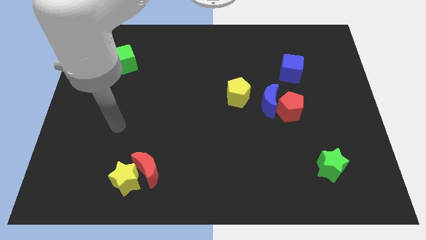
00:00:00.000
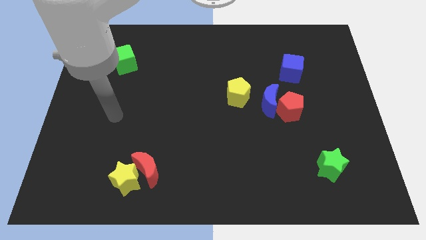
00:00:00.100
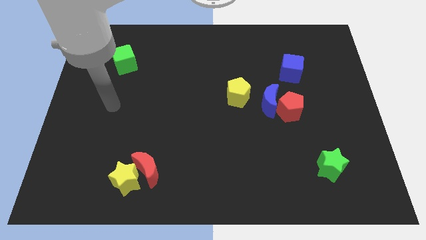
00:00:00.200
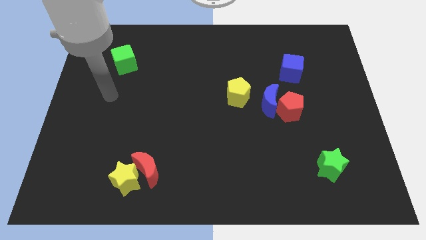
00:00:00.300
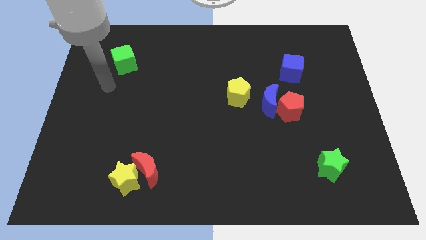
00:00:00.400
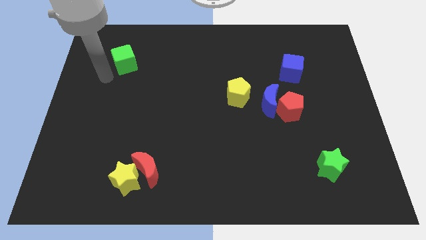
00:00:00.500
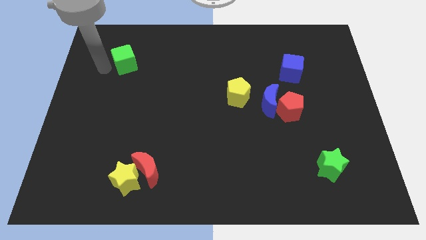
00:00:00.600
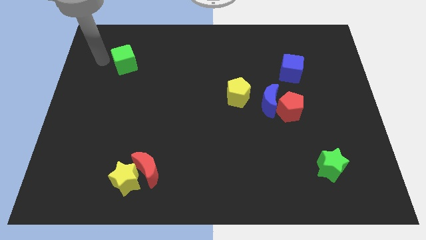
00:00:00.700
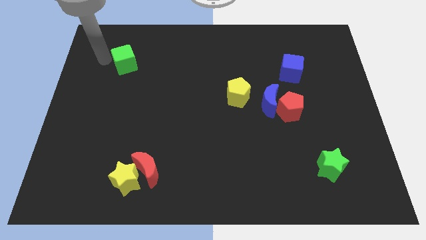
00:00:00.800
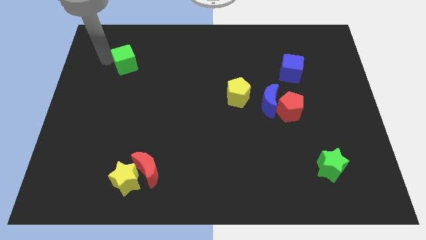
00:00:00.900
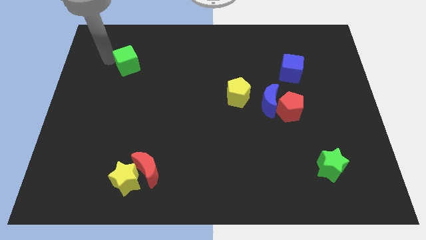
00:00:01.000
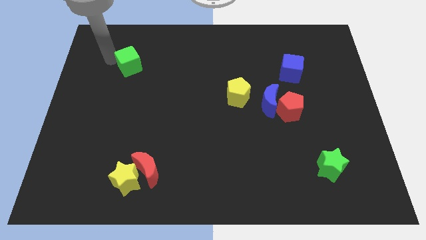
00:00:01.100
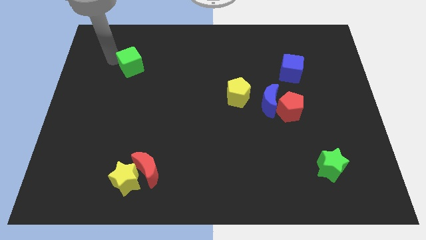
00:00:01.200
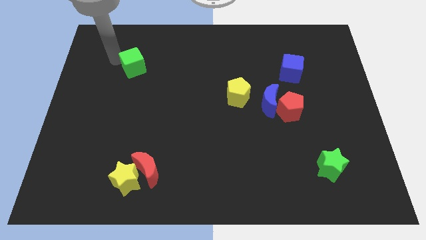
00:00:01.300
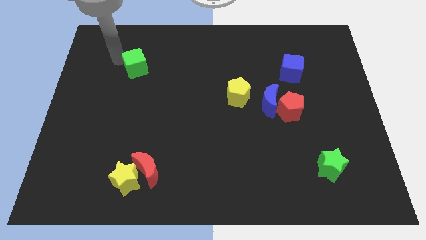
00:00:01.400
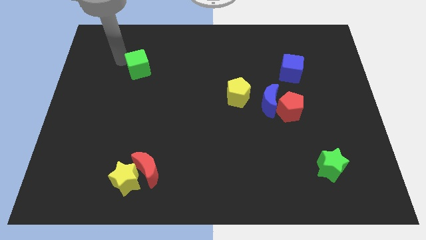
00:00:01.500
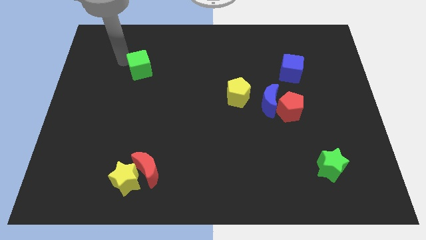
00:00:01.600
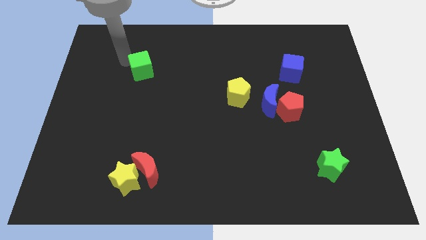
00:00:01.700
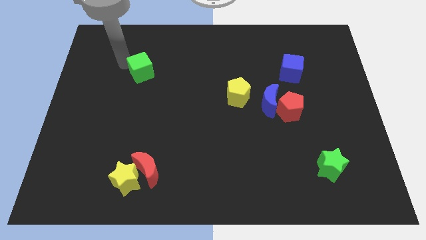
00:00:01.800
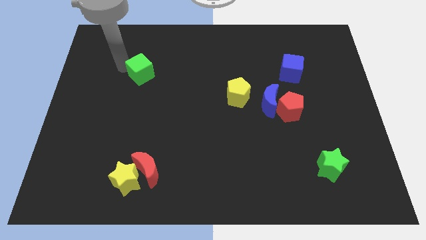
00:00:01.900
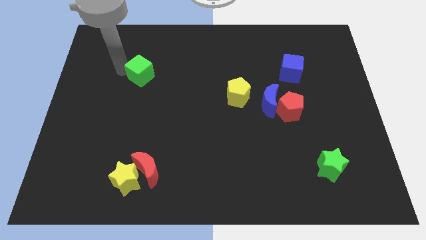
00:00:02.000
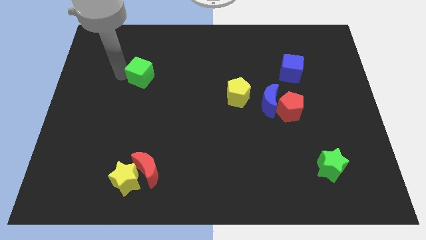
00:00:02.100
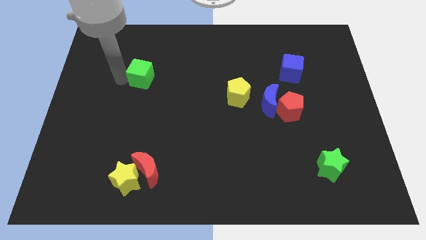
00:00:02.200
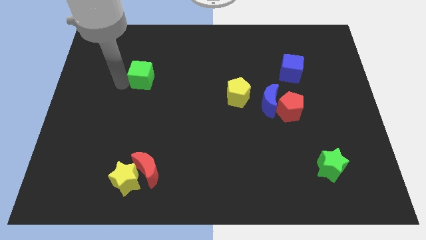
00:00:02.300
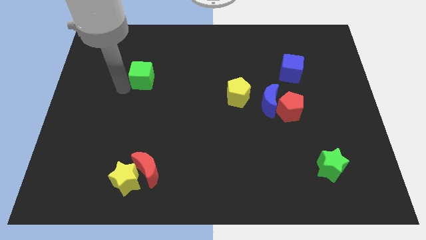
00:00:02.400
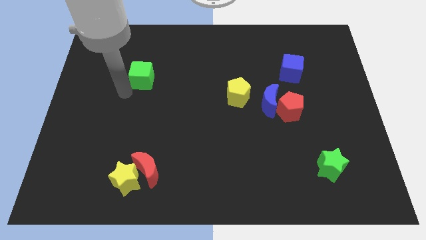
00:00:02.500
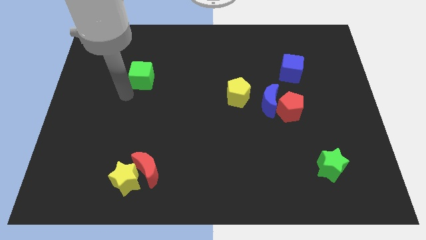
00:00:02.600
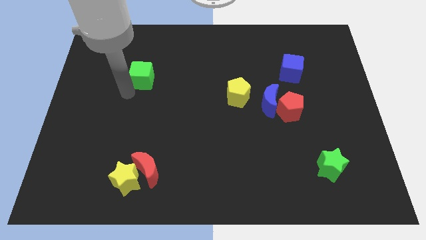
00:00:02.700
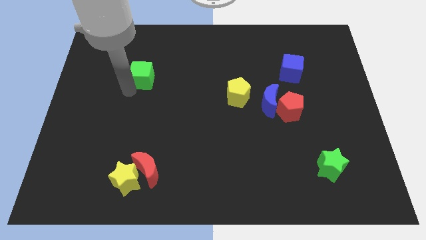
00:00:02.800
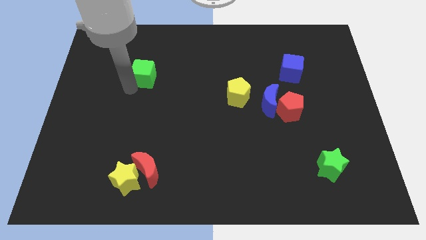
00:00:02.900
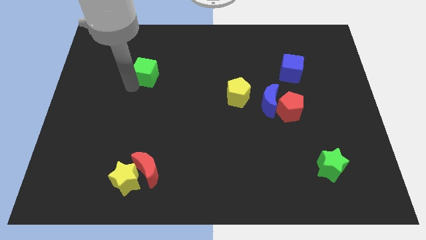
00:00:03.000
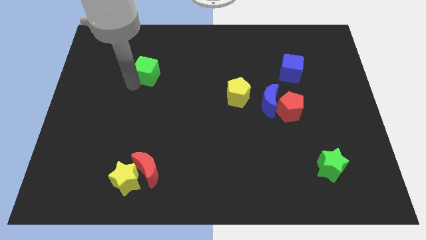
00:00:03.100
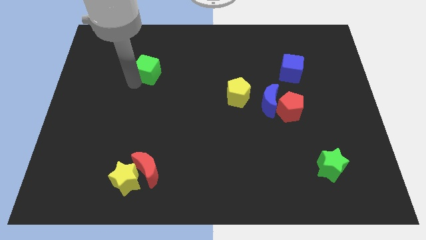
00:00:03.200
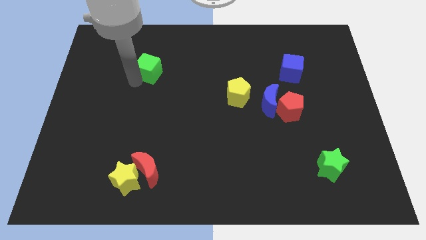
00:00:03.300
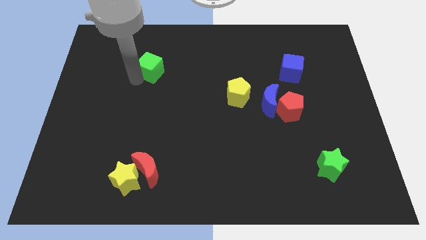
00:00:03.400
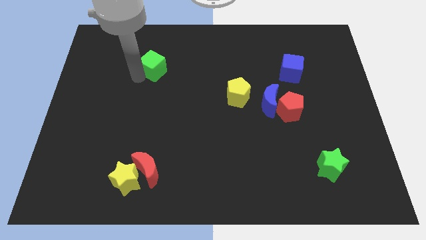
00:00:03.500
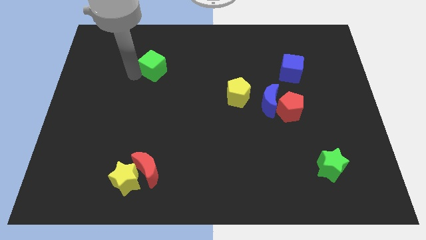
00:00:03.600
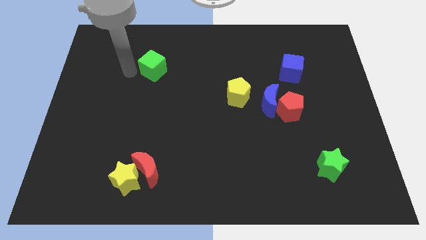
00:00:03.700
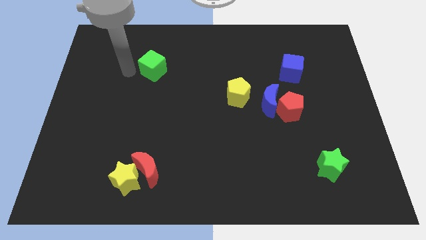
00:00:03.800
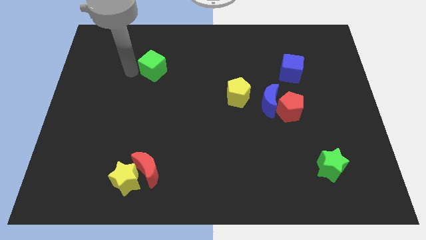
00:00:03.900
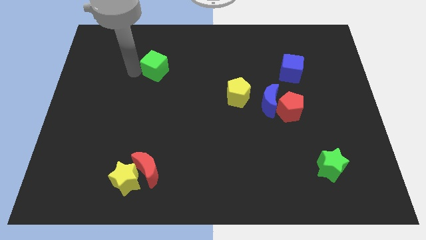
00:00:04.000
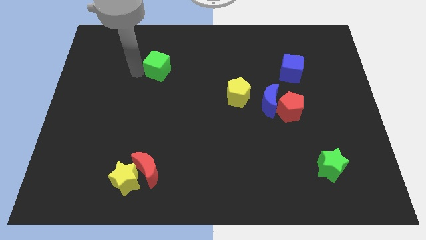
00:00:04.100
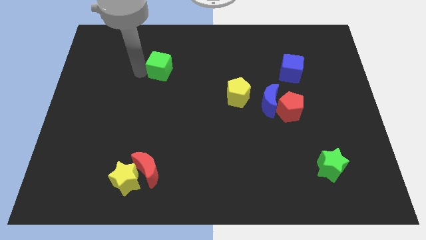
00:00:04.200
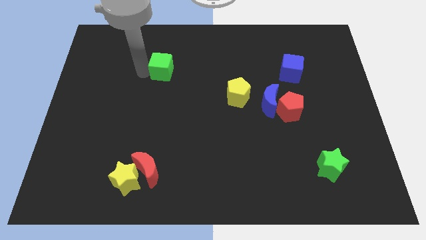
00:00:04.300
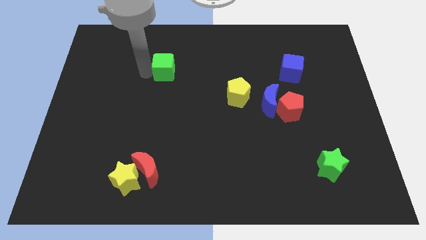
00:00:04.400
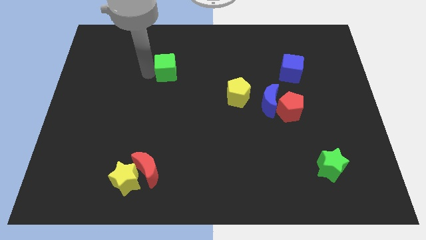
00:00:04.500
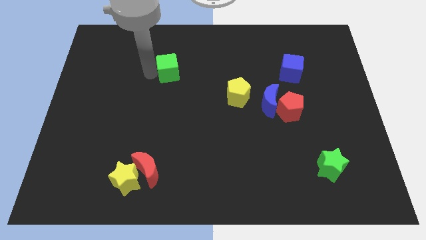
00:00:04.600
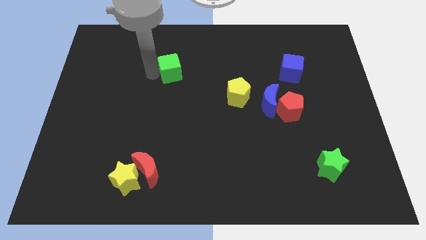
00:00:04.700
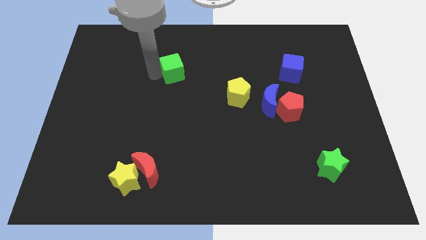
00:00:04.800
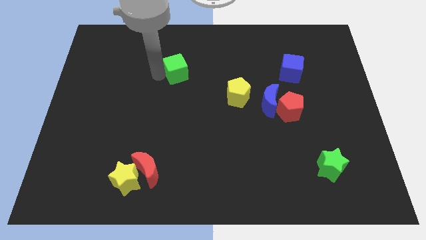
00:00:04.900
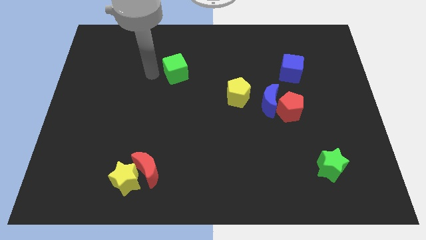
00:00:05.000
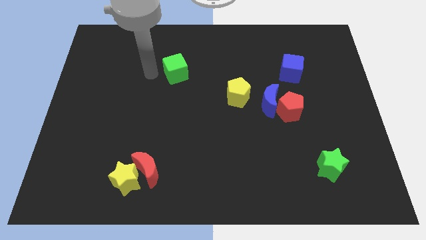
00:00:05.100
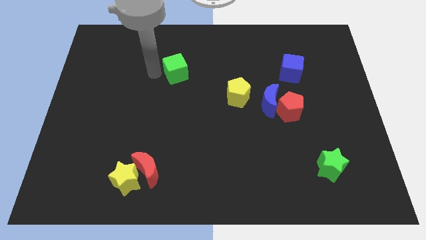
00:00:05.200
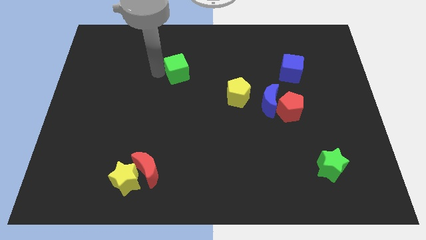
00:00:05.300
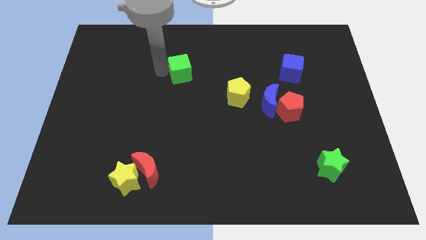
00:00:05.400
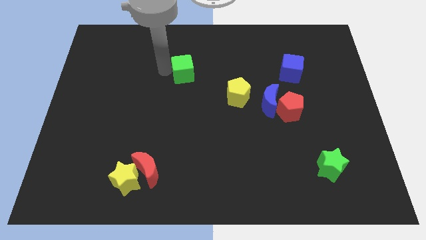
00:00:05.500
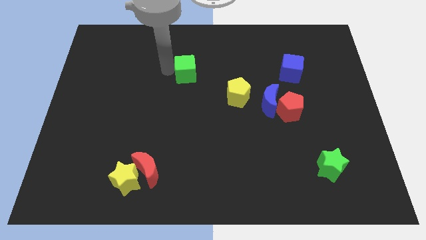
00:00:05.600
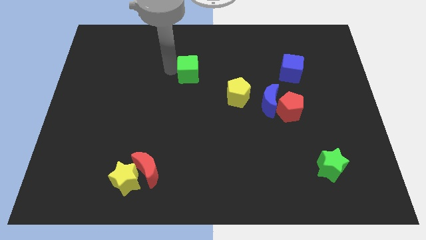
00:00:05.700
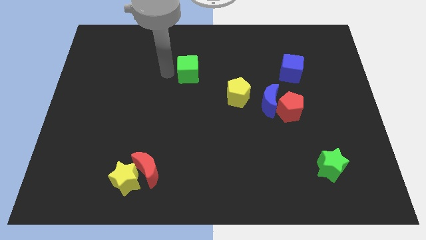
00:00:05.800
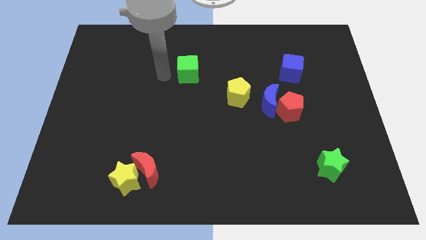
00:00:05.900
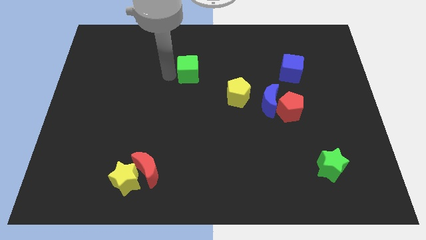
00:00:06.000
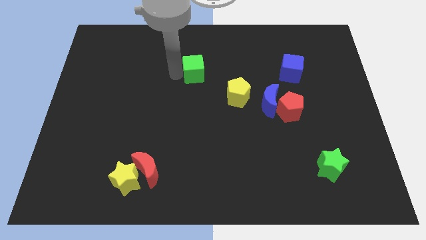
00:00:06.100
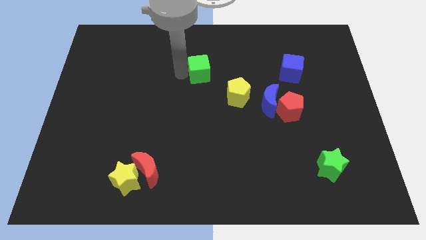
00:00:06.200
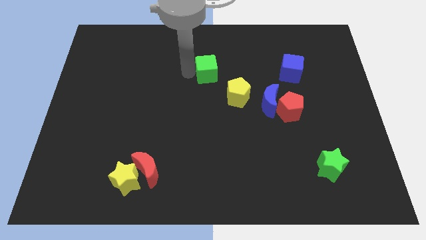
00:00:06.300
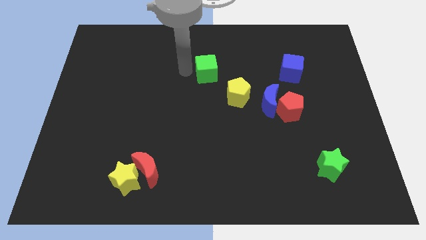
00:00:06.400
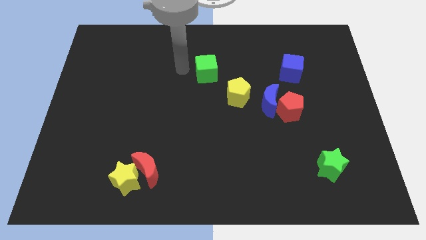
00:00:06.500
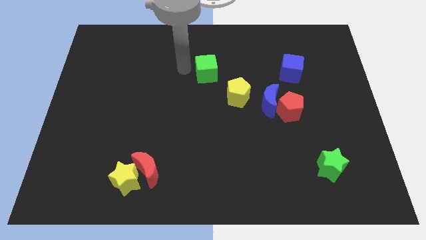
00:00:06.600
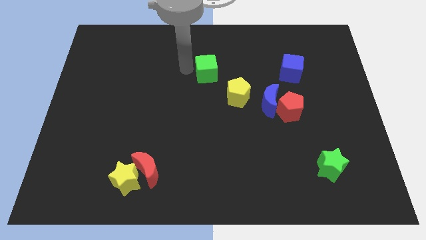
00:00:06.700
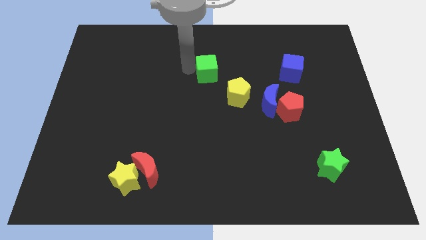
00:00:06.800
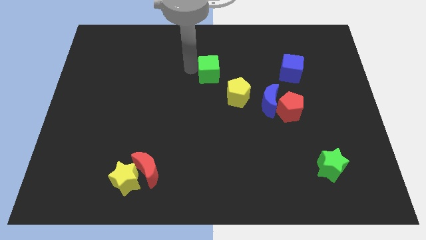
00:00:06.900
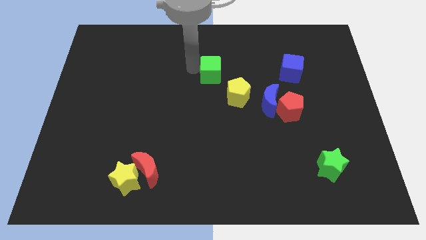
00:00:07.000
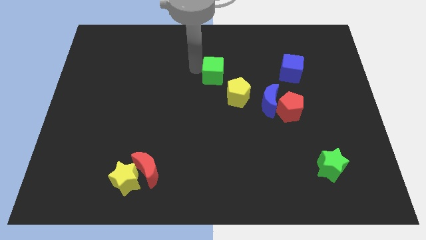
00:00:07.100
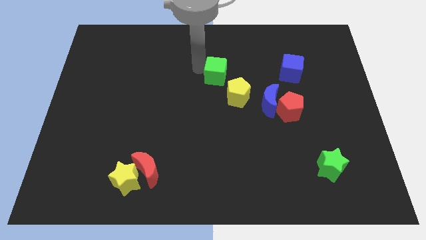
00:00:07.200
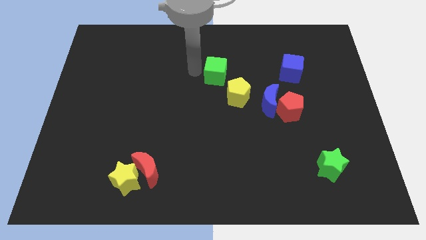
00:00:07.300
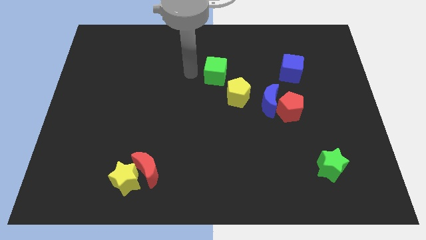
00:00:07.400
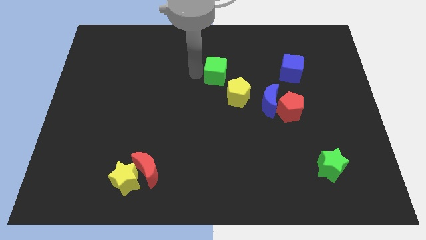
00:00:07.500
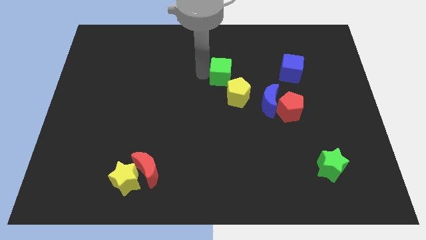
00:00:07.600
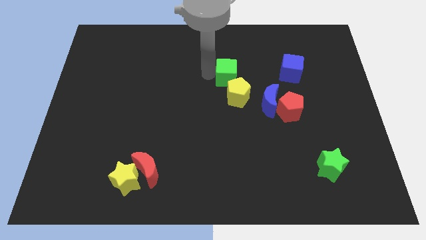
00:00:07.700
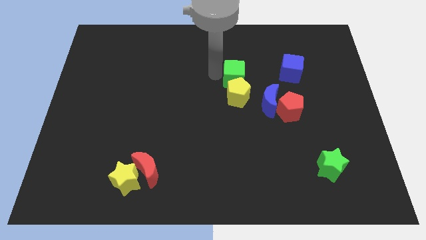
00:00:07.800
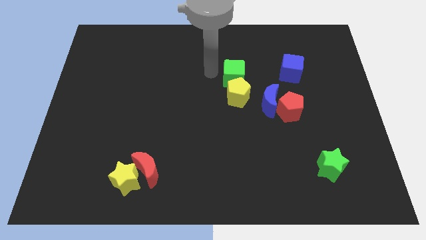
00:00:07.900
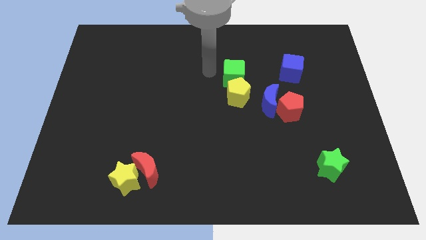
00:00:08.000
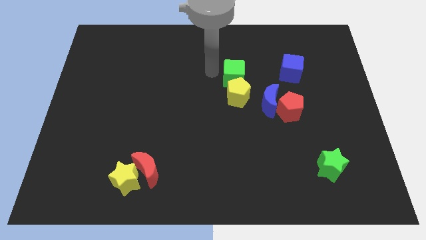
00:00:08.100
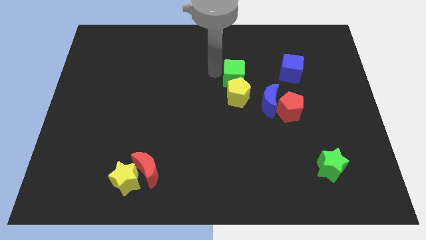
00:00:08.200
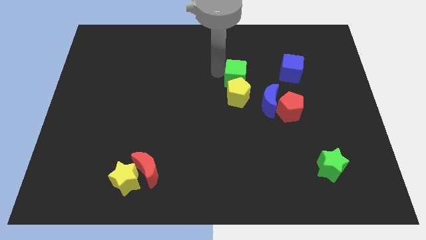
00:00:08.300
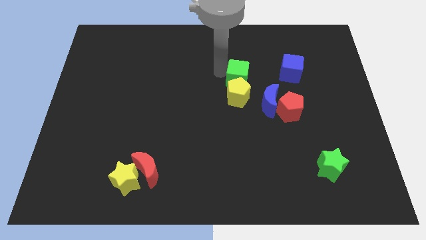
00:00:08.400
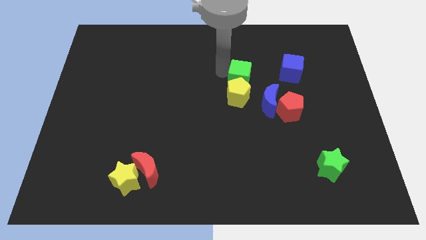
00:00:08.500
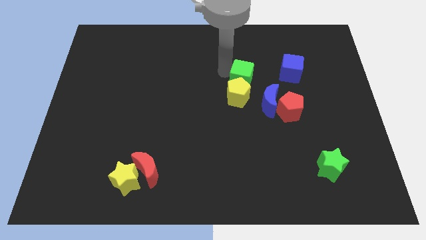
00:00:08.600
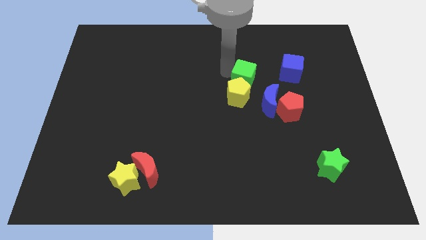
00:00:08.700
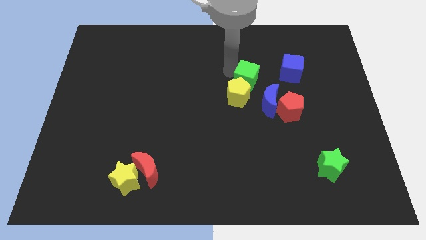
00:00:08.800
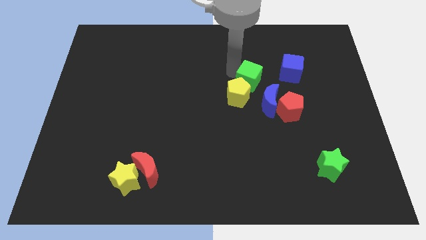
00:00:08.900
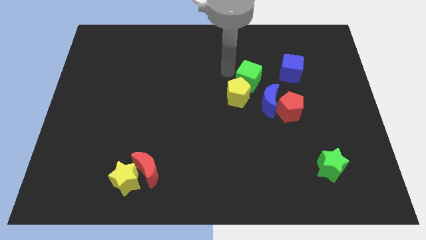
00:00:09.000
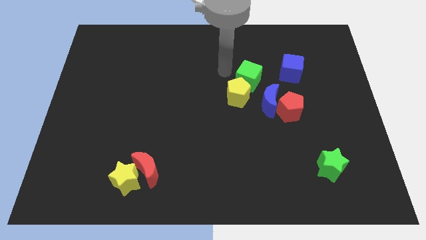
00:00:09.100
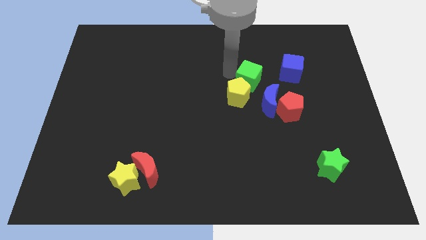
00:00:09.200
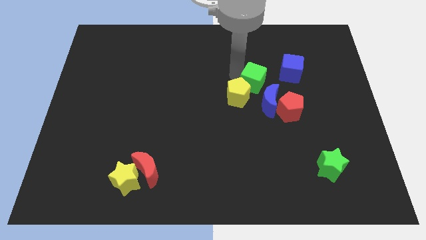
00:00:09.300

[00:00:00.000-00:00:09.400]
move the green cube diagonally down and to the left of the blue cube
